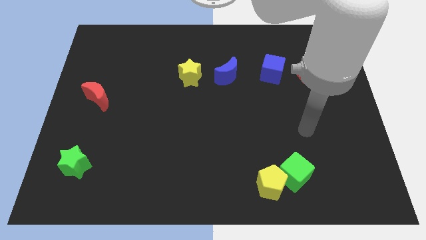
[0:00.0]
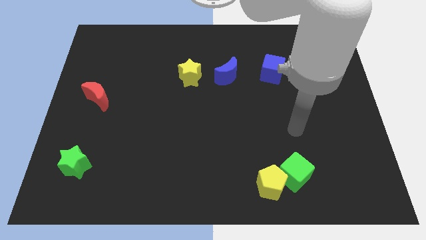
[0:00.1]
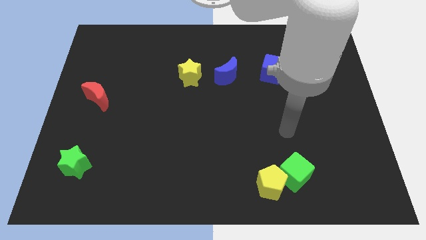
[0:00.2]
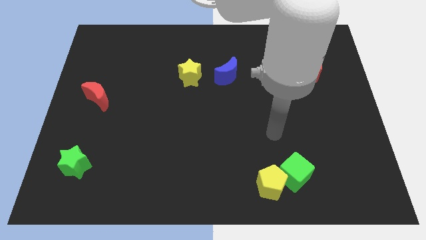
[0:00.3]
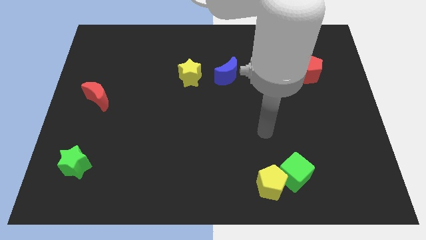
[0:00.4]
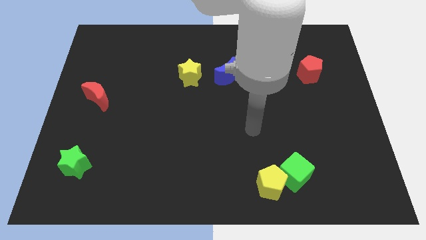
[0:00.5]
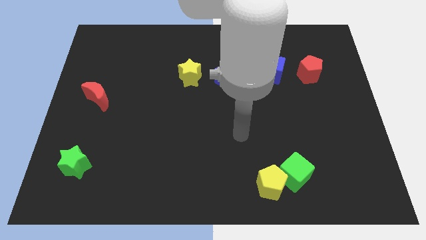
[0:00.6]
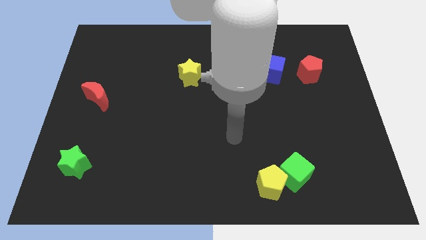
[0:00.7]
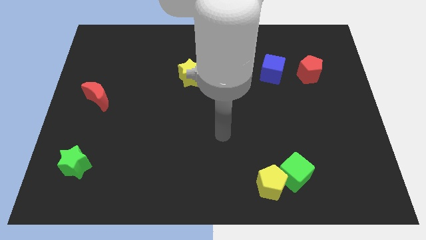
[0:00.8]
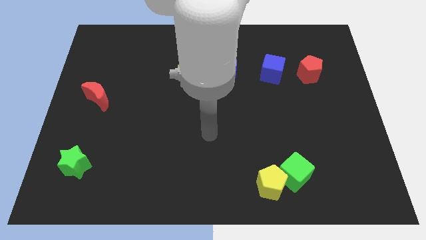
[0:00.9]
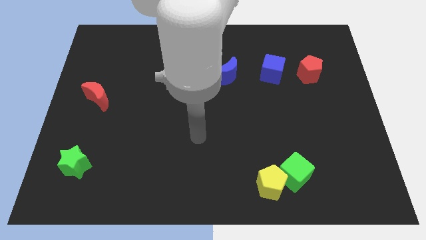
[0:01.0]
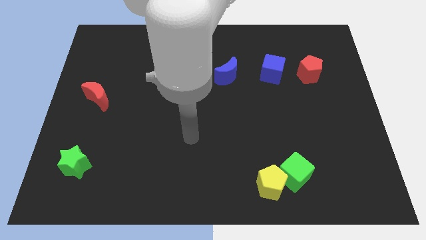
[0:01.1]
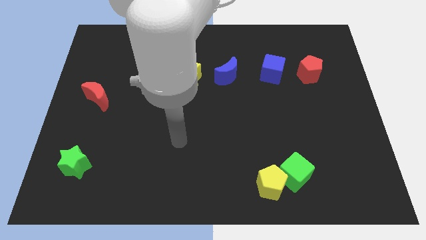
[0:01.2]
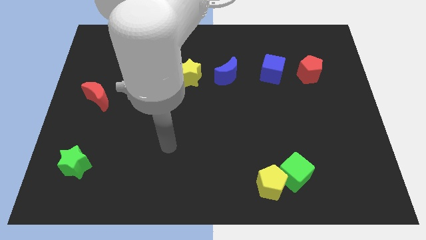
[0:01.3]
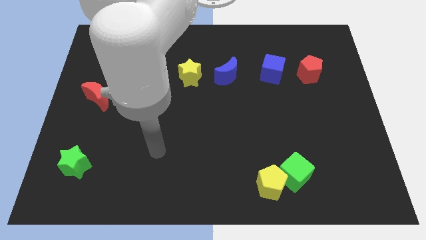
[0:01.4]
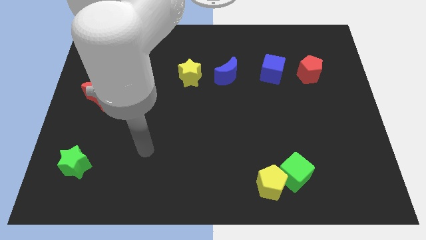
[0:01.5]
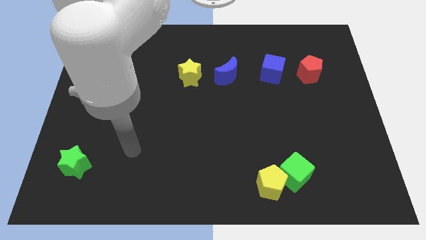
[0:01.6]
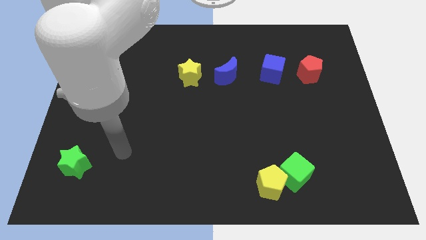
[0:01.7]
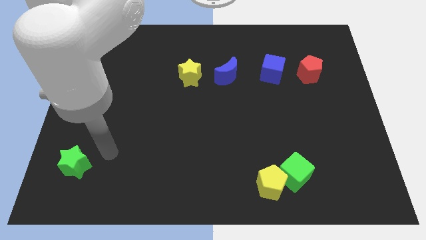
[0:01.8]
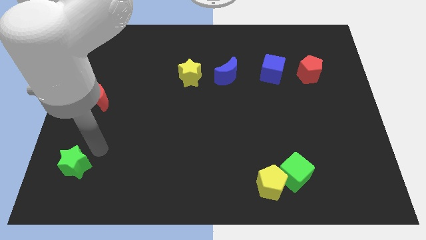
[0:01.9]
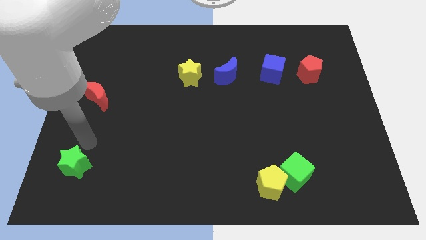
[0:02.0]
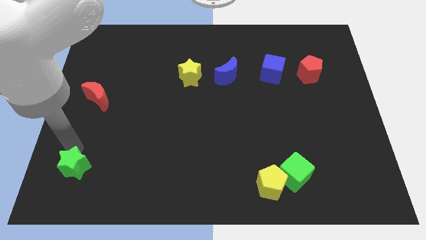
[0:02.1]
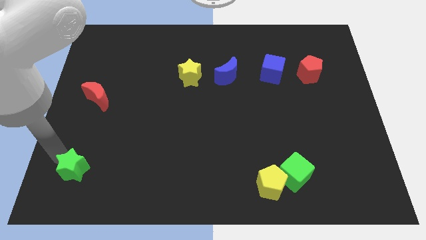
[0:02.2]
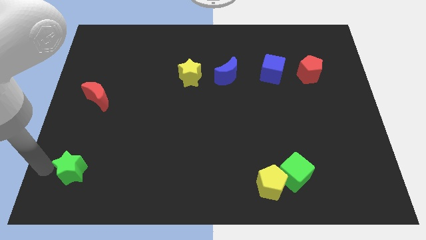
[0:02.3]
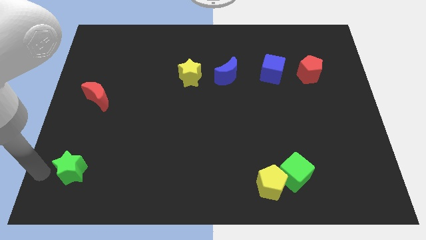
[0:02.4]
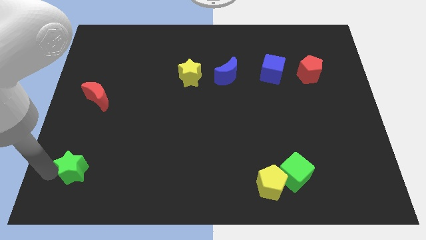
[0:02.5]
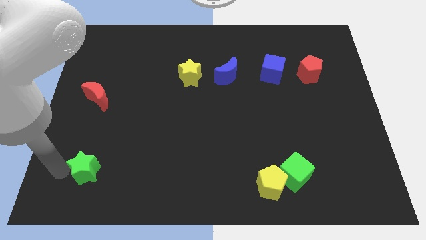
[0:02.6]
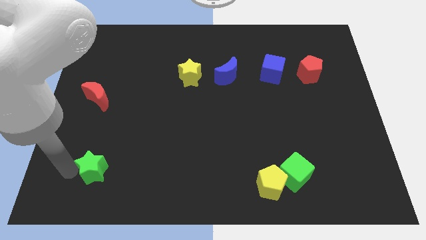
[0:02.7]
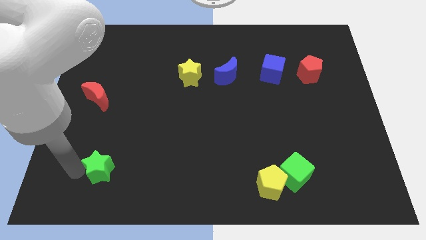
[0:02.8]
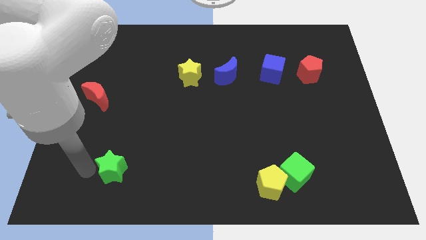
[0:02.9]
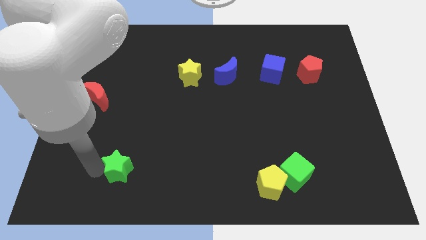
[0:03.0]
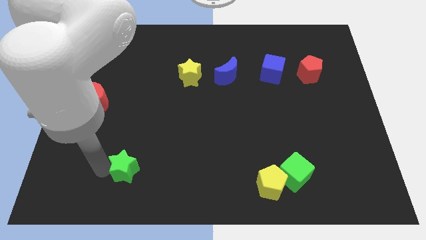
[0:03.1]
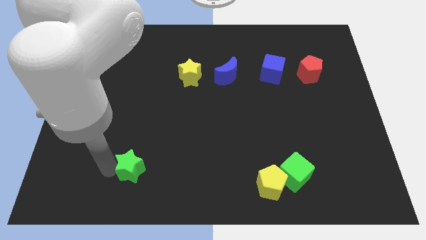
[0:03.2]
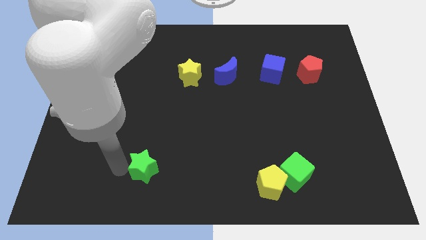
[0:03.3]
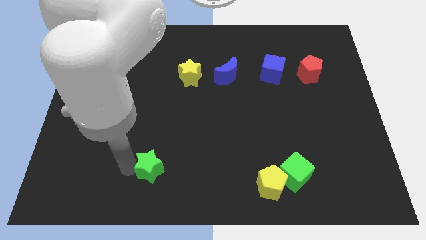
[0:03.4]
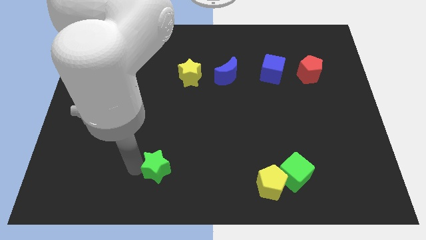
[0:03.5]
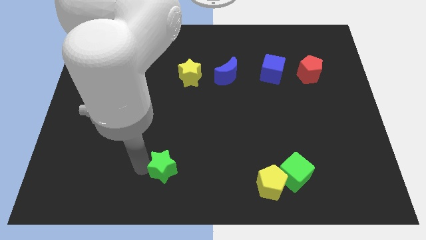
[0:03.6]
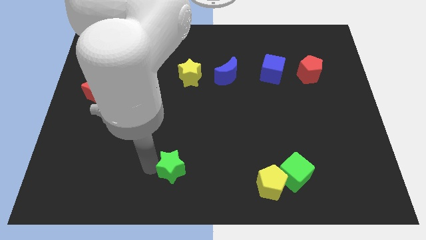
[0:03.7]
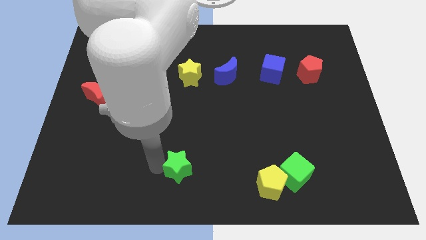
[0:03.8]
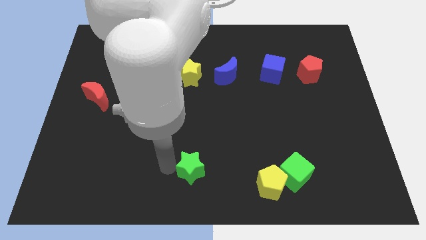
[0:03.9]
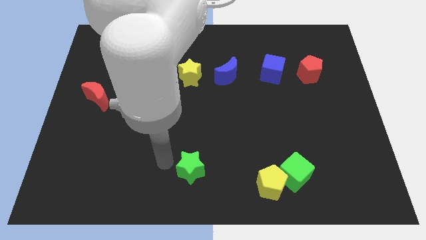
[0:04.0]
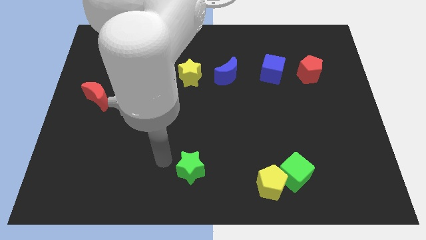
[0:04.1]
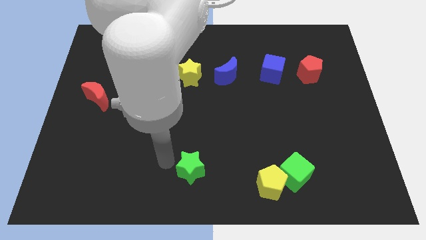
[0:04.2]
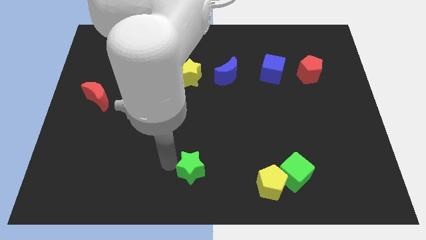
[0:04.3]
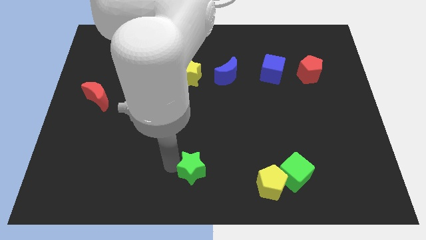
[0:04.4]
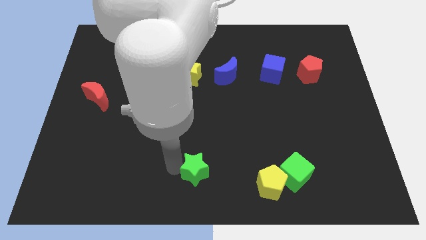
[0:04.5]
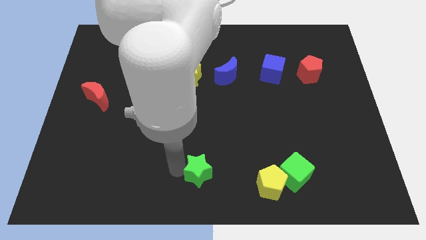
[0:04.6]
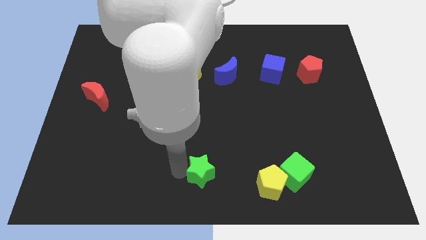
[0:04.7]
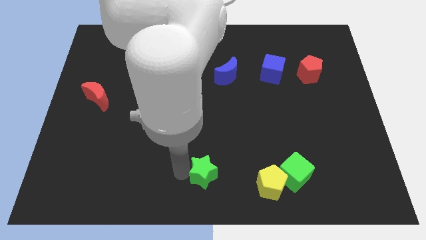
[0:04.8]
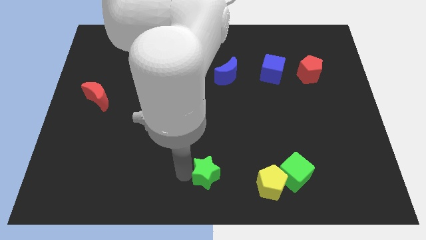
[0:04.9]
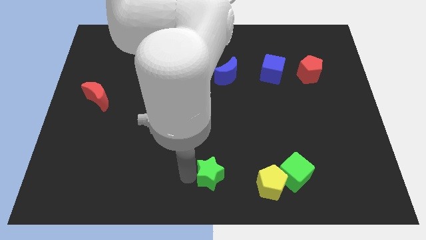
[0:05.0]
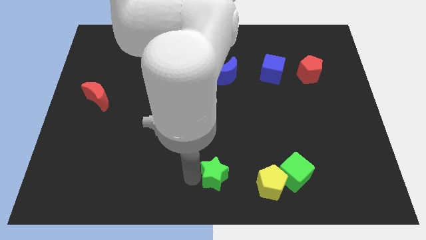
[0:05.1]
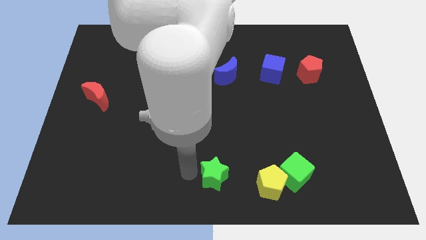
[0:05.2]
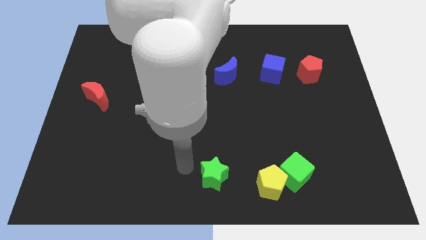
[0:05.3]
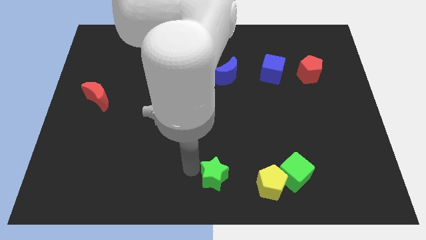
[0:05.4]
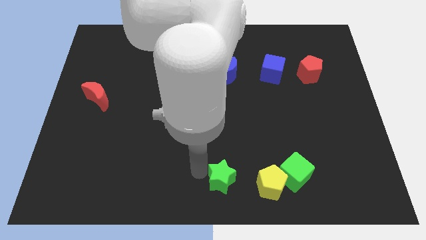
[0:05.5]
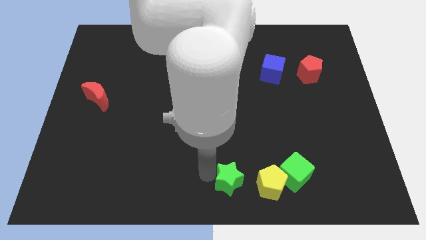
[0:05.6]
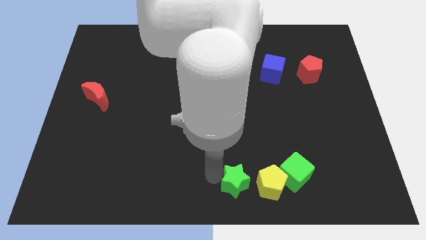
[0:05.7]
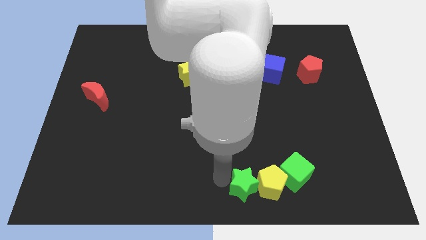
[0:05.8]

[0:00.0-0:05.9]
put the green star to the yellow pentagon

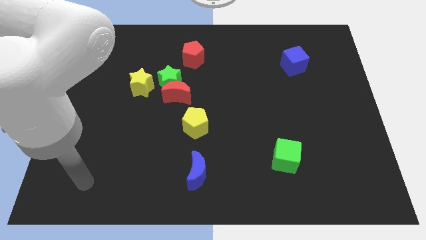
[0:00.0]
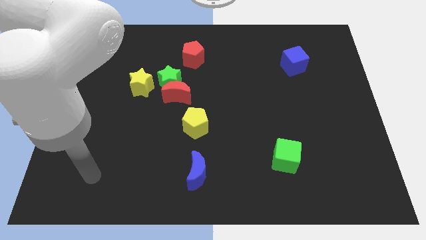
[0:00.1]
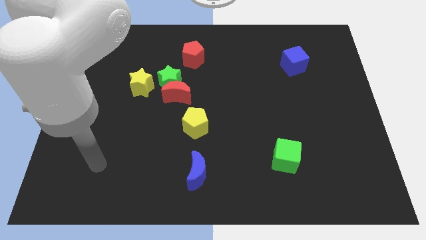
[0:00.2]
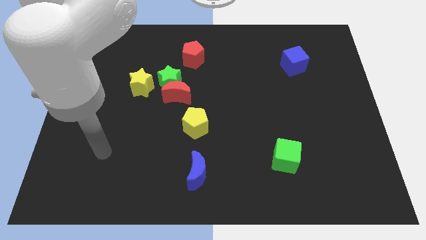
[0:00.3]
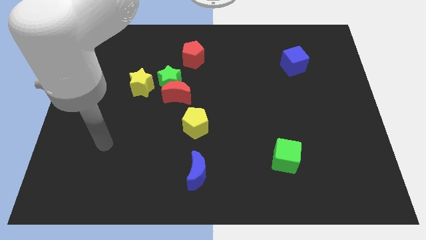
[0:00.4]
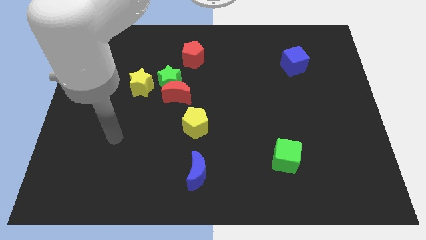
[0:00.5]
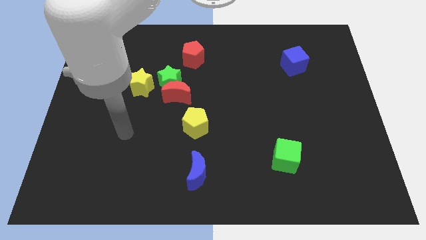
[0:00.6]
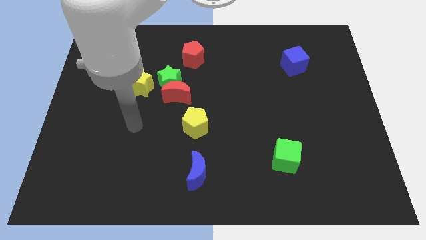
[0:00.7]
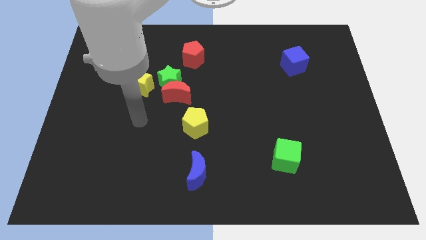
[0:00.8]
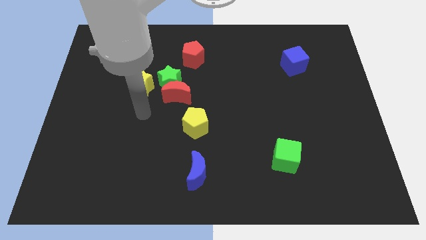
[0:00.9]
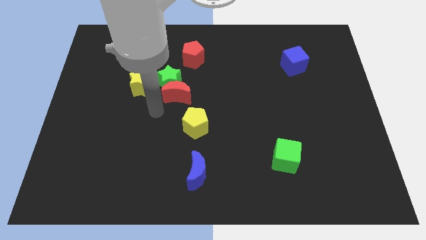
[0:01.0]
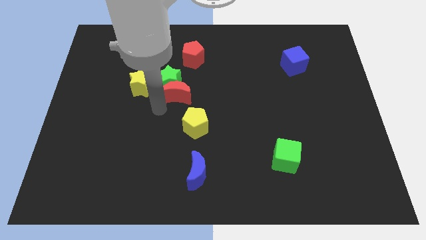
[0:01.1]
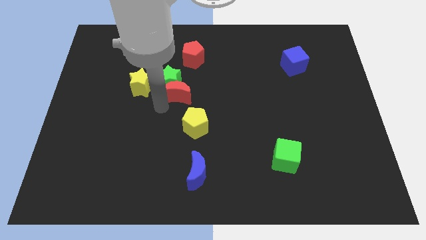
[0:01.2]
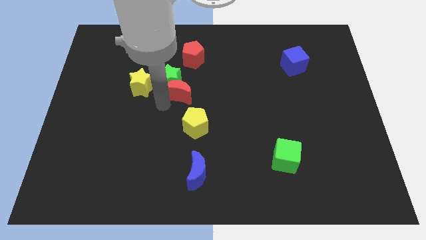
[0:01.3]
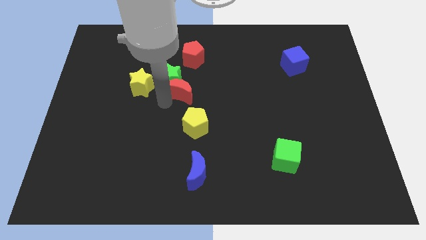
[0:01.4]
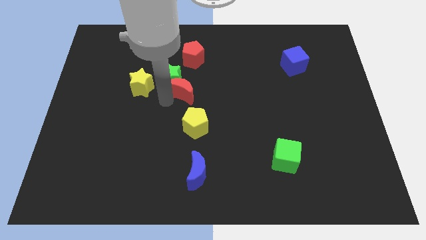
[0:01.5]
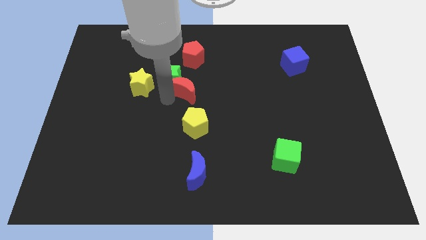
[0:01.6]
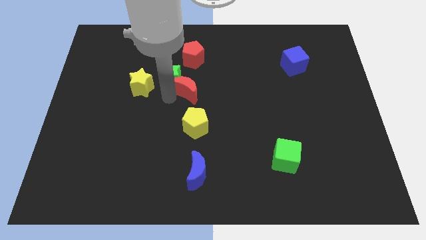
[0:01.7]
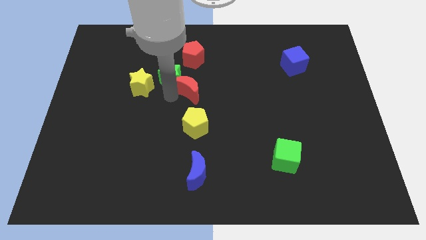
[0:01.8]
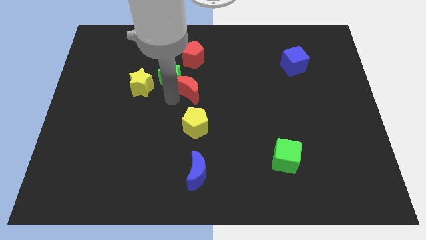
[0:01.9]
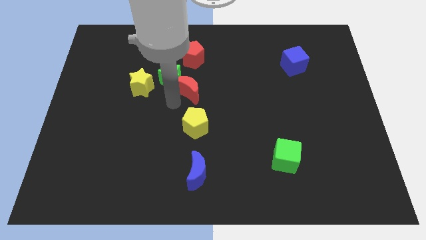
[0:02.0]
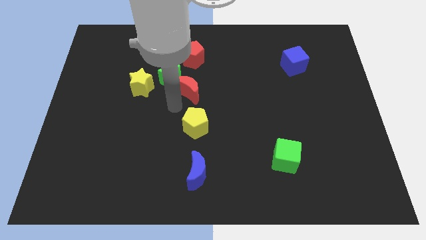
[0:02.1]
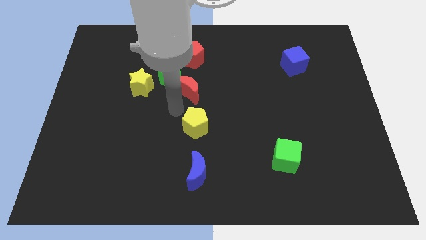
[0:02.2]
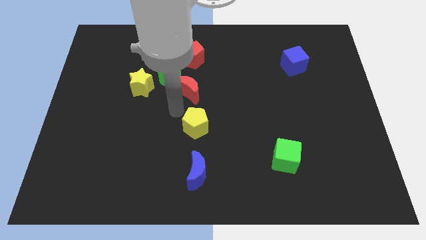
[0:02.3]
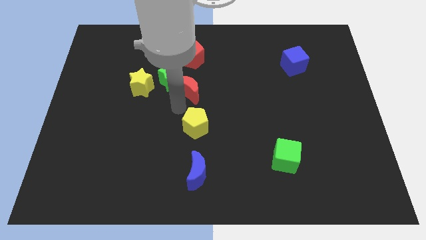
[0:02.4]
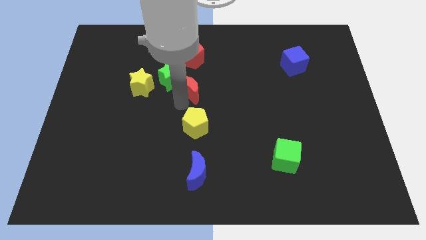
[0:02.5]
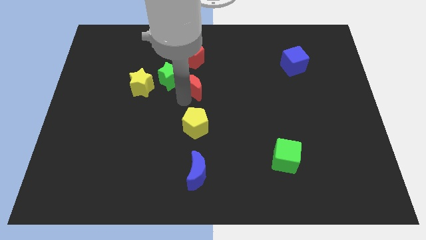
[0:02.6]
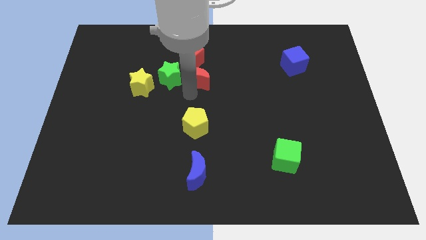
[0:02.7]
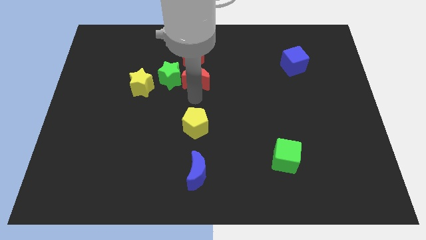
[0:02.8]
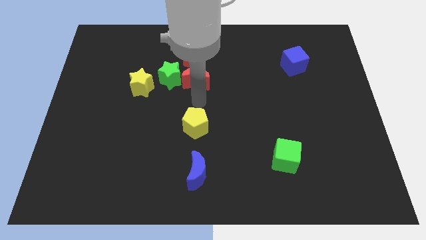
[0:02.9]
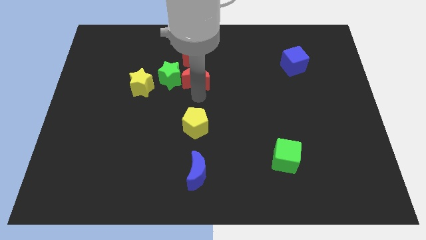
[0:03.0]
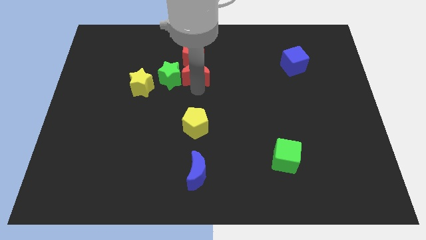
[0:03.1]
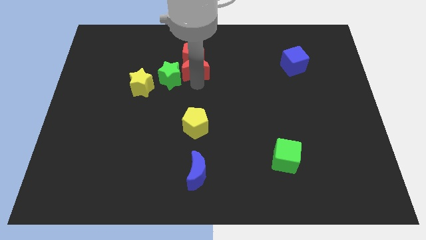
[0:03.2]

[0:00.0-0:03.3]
slide the red moon to the red pentagon
